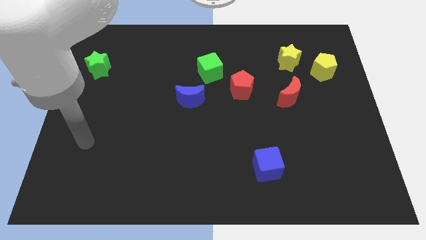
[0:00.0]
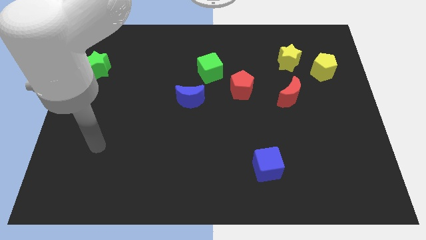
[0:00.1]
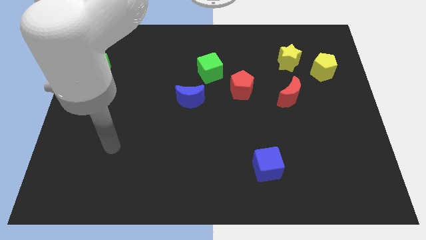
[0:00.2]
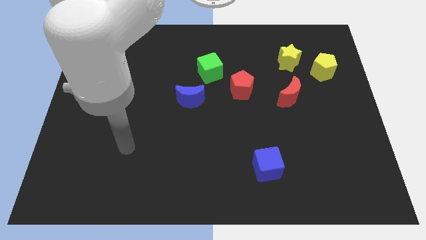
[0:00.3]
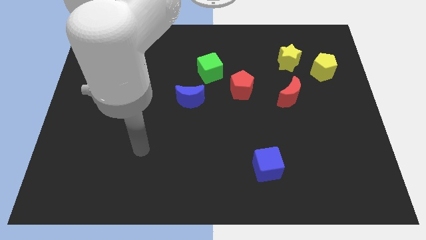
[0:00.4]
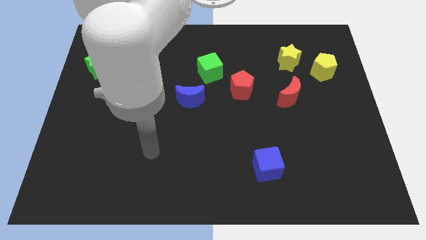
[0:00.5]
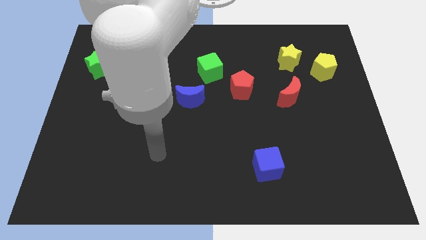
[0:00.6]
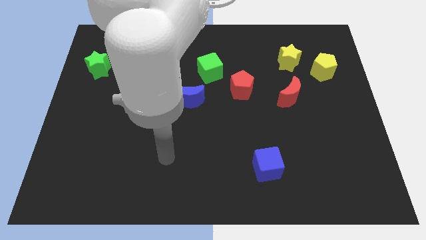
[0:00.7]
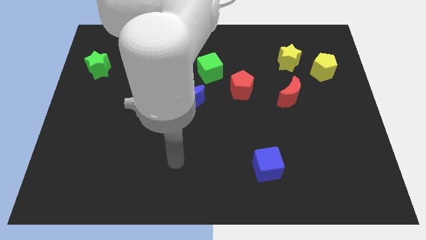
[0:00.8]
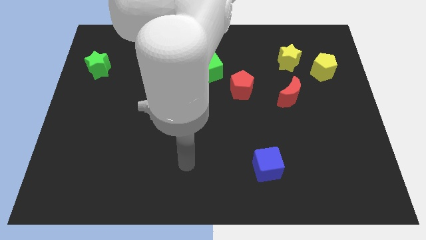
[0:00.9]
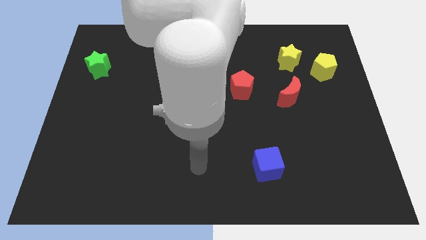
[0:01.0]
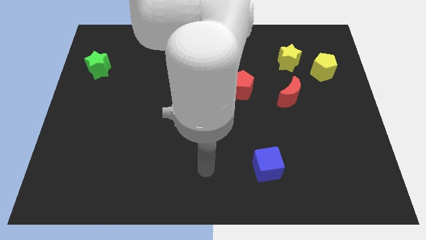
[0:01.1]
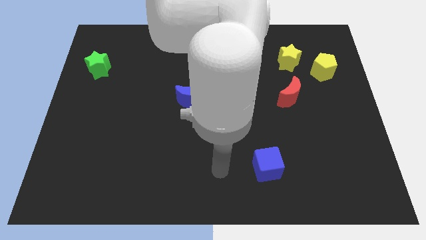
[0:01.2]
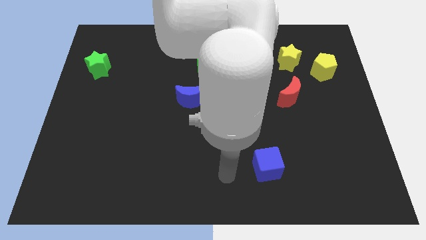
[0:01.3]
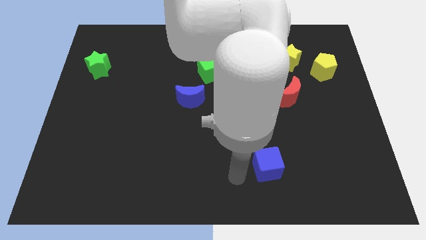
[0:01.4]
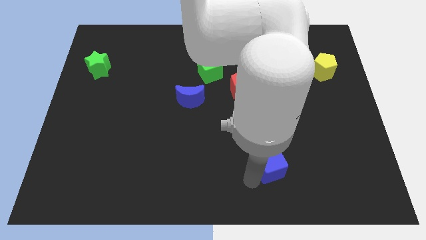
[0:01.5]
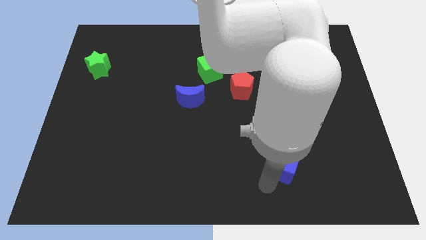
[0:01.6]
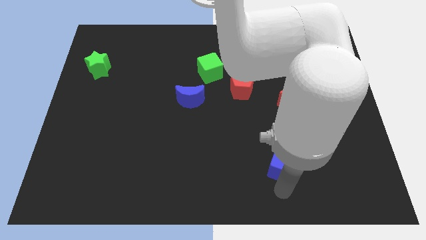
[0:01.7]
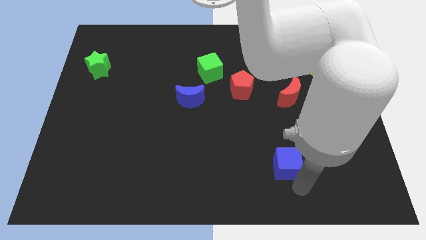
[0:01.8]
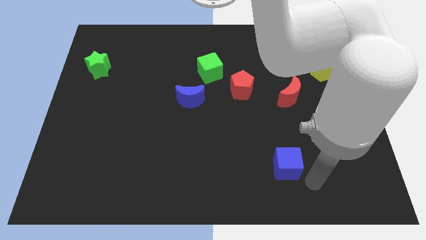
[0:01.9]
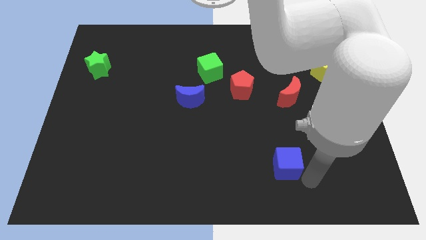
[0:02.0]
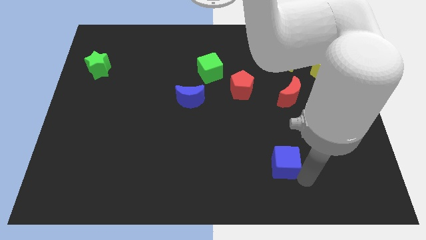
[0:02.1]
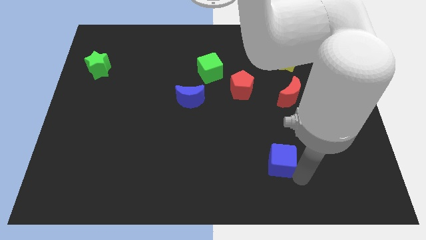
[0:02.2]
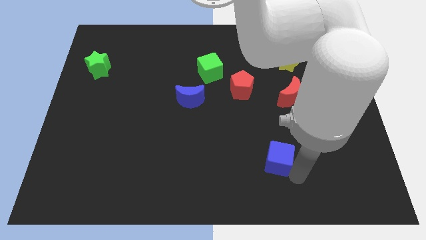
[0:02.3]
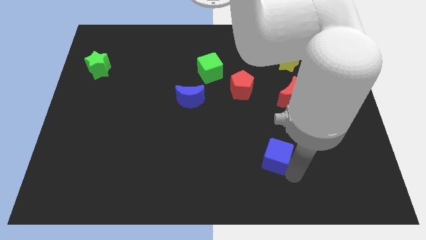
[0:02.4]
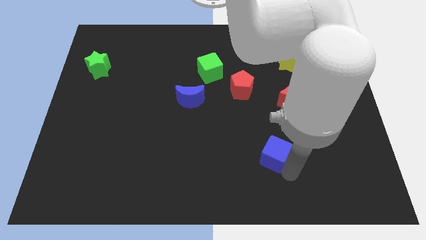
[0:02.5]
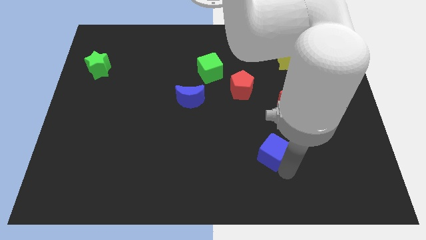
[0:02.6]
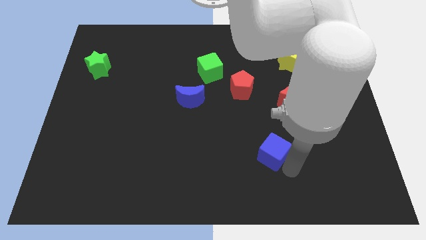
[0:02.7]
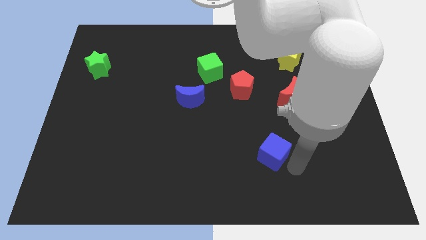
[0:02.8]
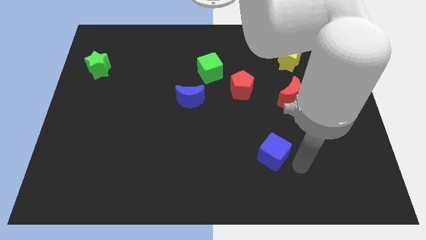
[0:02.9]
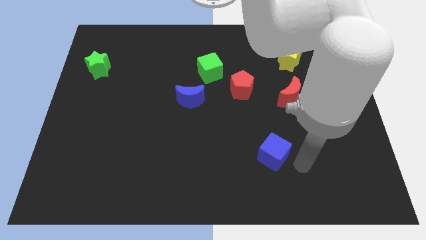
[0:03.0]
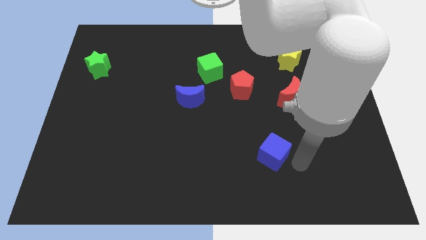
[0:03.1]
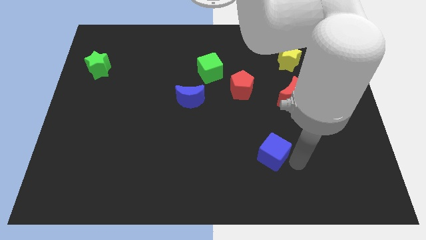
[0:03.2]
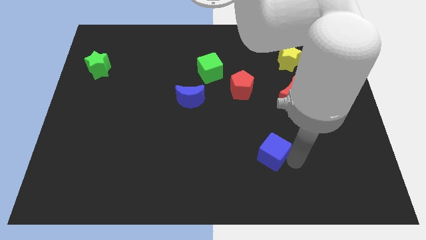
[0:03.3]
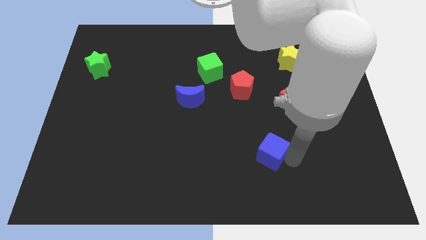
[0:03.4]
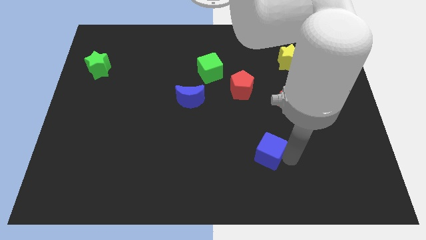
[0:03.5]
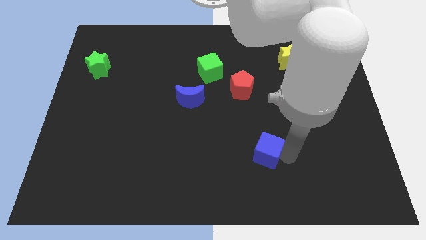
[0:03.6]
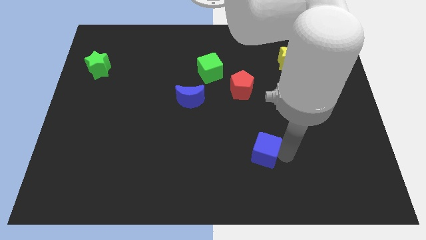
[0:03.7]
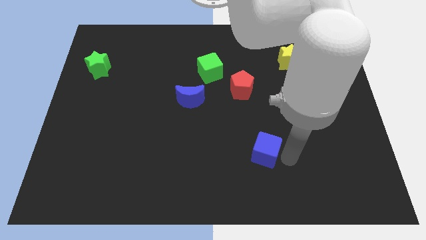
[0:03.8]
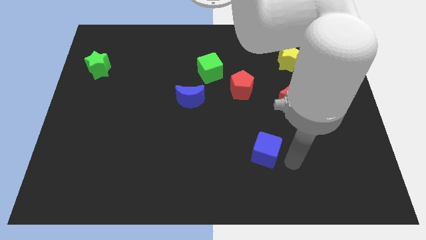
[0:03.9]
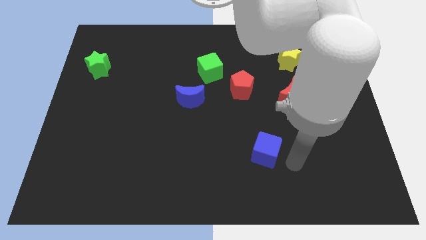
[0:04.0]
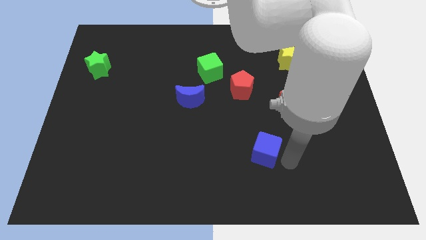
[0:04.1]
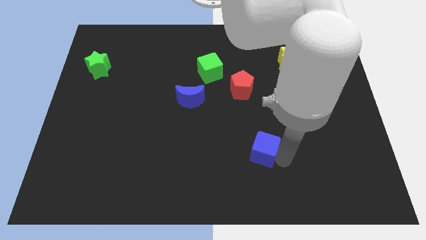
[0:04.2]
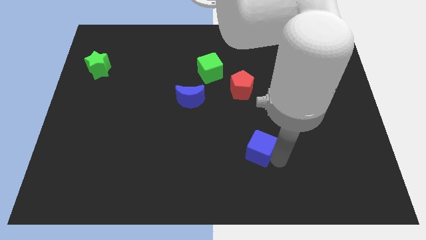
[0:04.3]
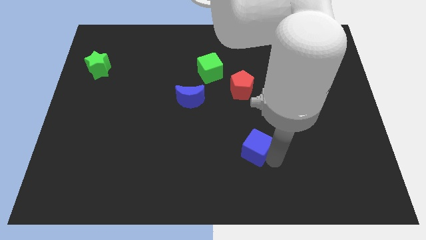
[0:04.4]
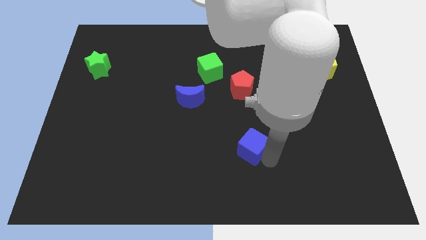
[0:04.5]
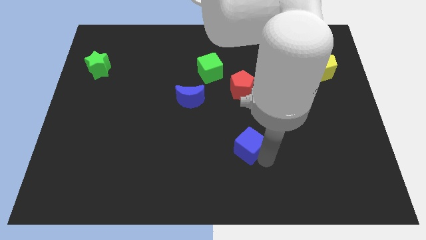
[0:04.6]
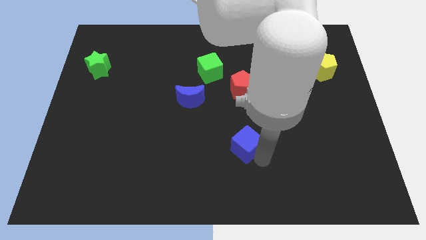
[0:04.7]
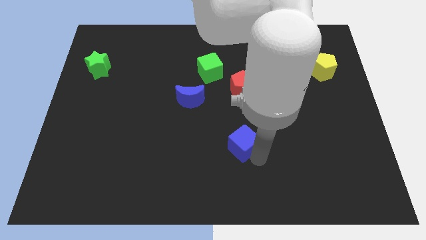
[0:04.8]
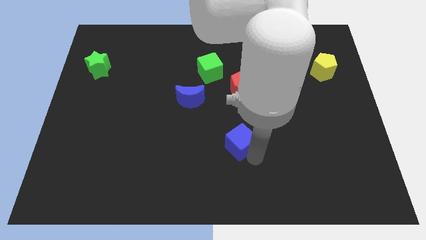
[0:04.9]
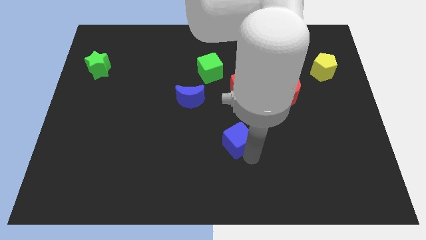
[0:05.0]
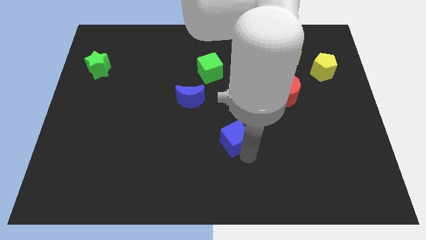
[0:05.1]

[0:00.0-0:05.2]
move the blue cube to the middle of the board

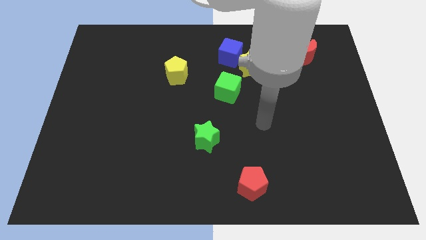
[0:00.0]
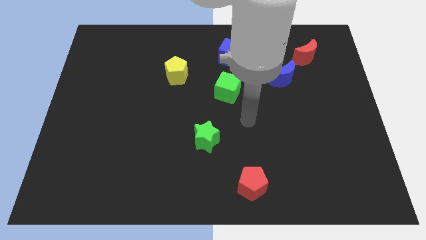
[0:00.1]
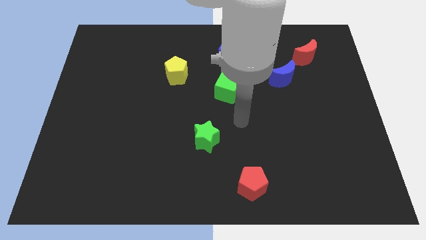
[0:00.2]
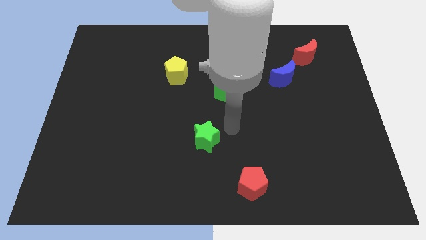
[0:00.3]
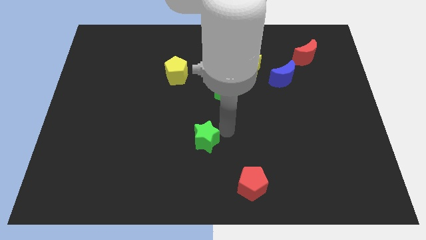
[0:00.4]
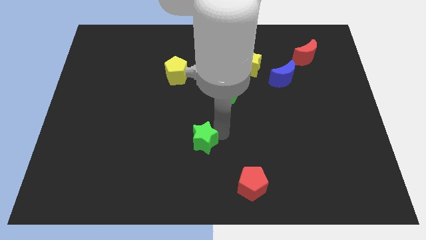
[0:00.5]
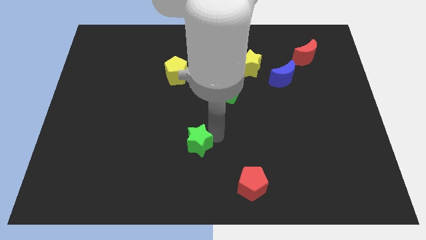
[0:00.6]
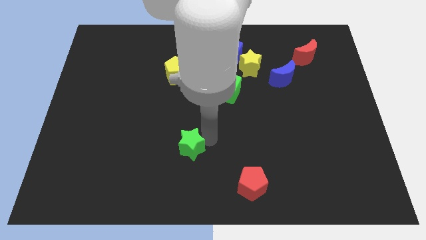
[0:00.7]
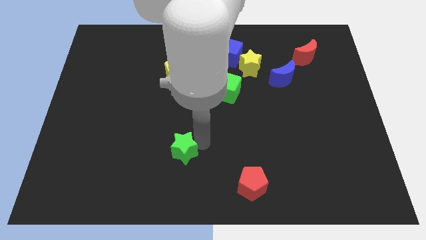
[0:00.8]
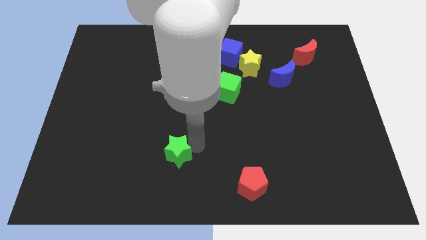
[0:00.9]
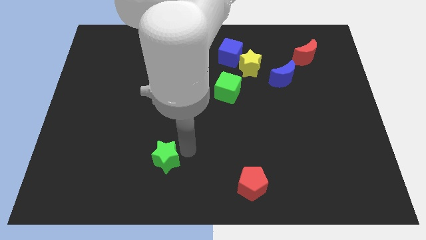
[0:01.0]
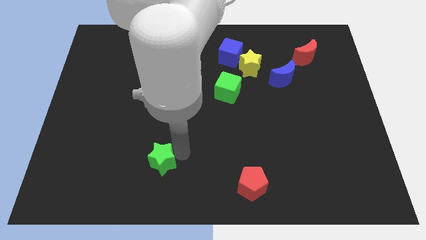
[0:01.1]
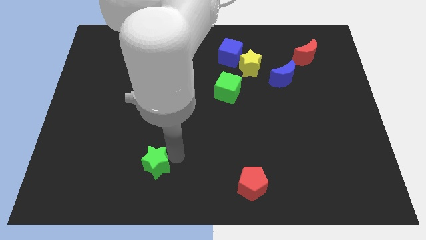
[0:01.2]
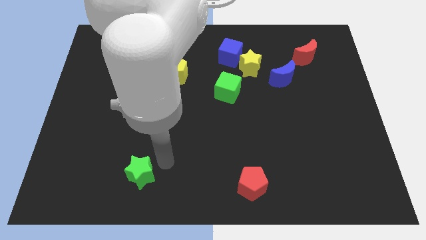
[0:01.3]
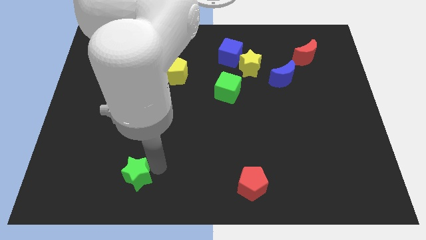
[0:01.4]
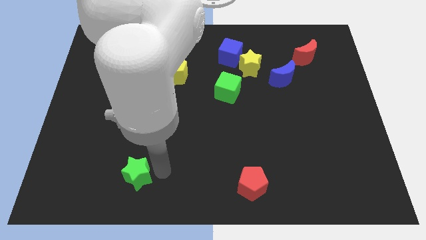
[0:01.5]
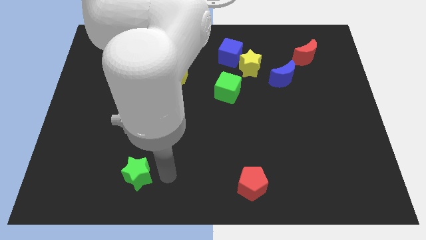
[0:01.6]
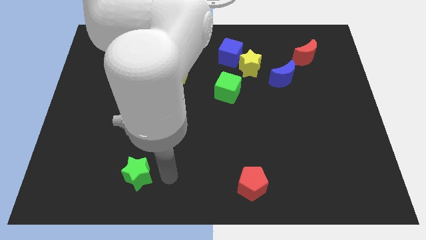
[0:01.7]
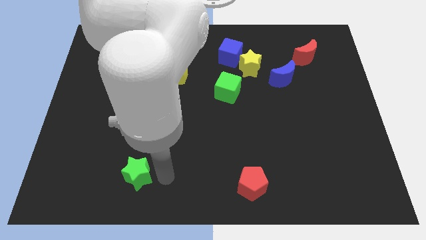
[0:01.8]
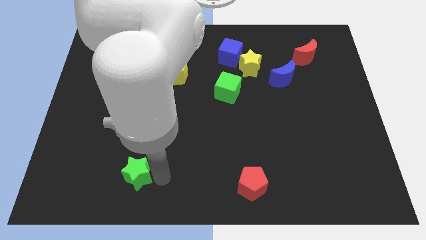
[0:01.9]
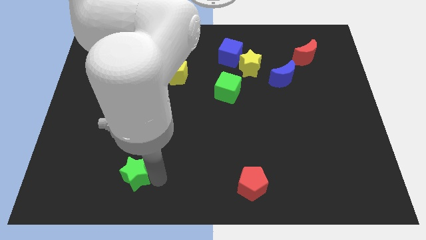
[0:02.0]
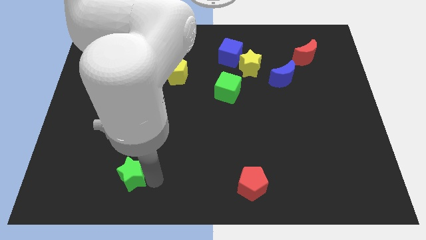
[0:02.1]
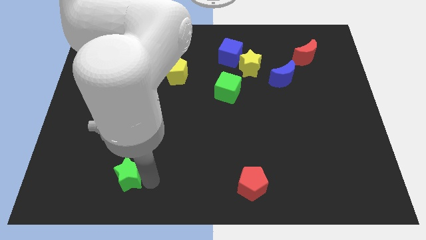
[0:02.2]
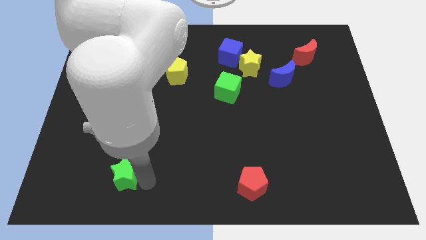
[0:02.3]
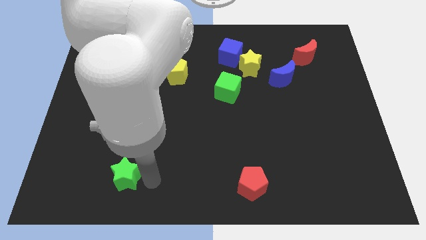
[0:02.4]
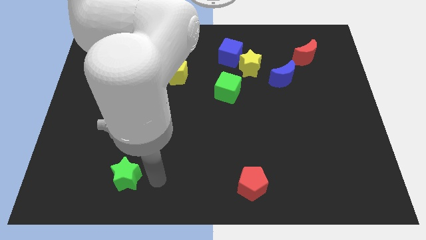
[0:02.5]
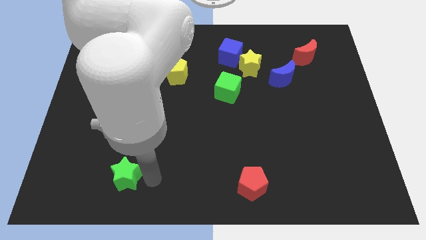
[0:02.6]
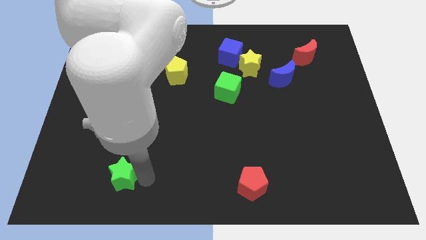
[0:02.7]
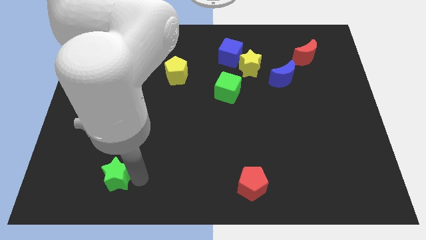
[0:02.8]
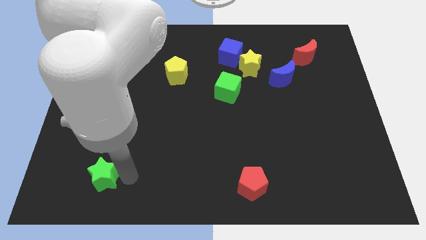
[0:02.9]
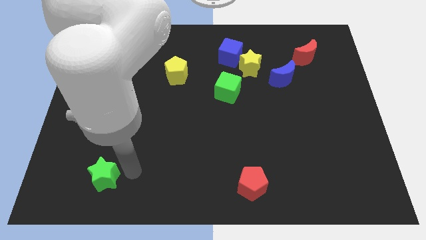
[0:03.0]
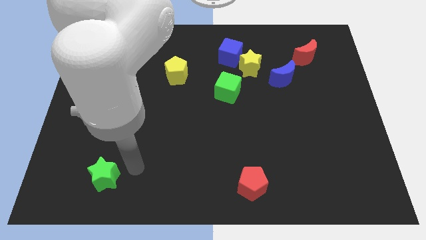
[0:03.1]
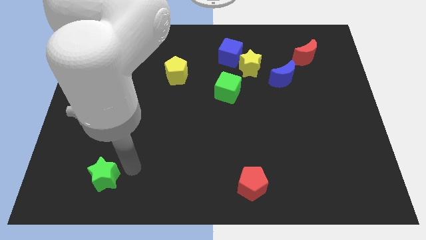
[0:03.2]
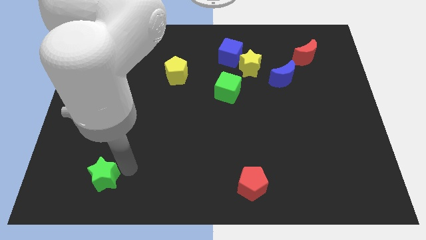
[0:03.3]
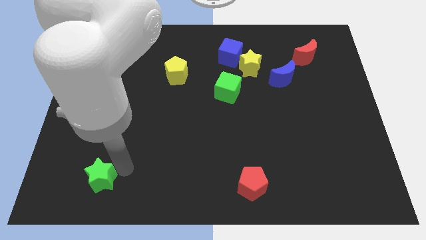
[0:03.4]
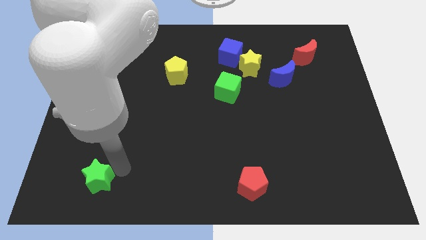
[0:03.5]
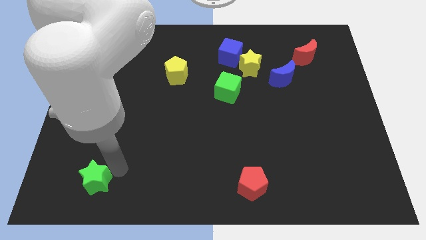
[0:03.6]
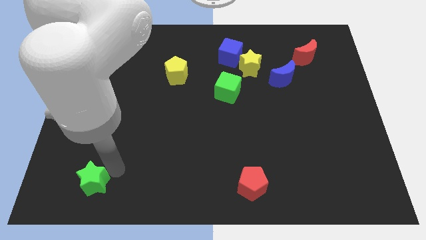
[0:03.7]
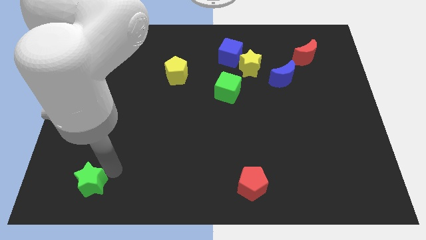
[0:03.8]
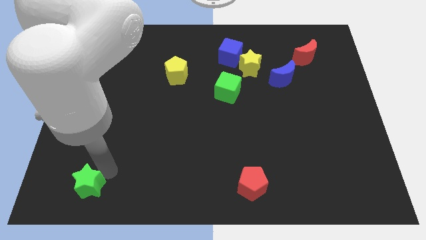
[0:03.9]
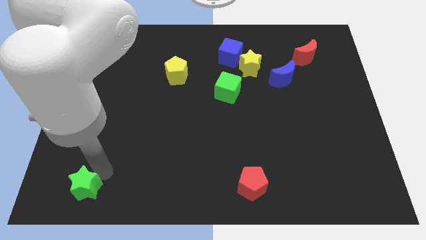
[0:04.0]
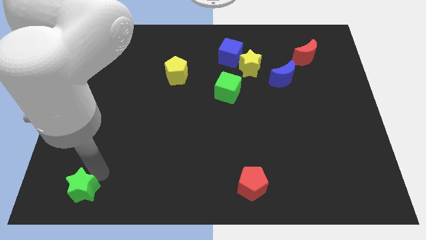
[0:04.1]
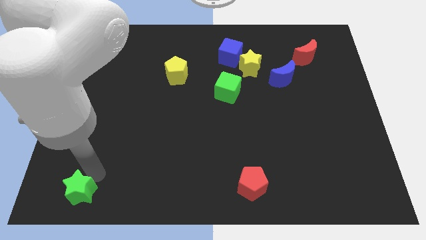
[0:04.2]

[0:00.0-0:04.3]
push the green star to the lower left corner
